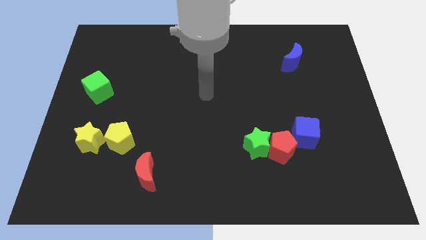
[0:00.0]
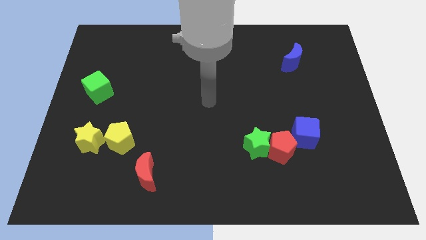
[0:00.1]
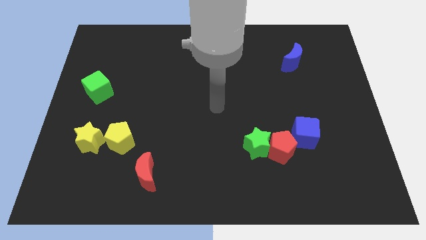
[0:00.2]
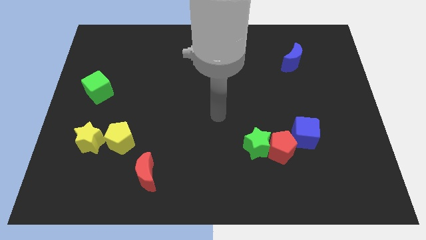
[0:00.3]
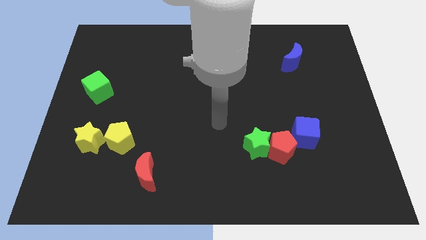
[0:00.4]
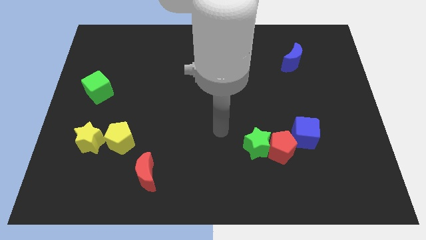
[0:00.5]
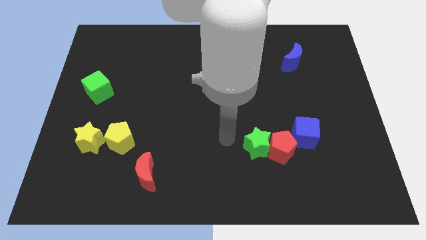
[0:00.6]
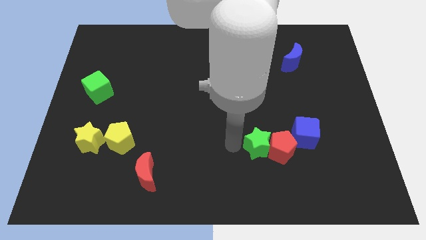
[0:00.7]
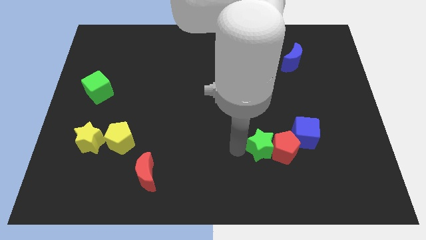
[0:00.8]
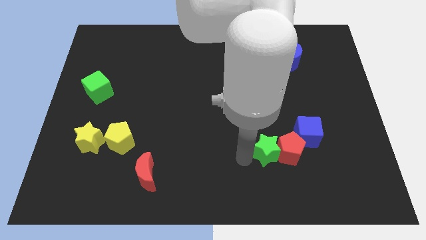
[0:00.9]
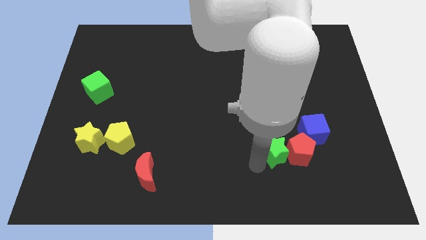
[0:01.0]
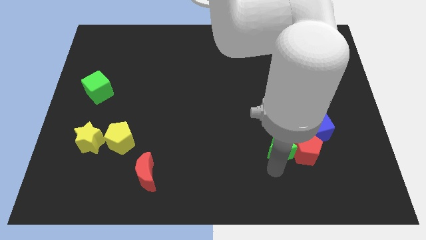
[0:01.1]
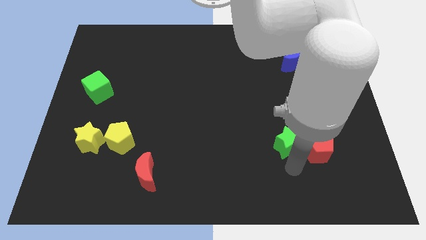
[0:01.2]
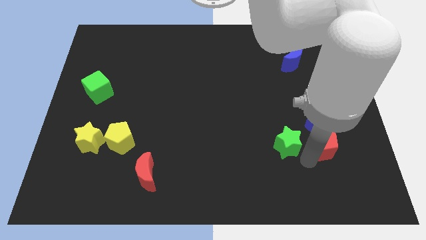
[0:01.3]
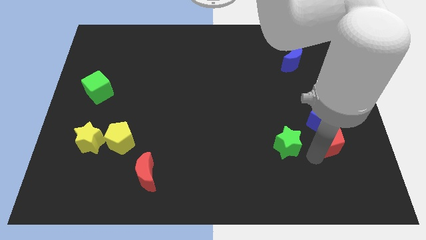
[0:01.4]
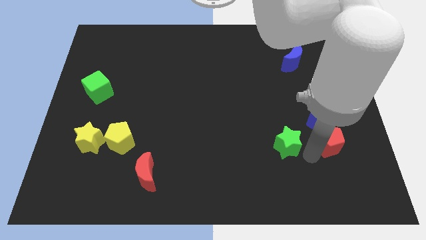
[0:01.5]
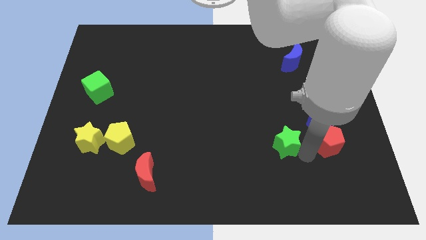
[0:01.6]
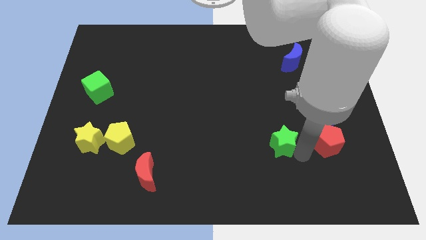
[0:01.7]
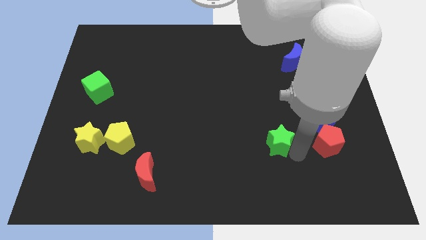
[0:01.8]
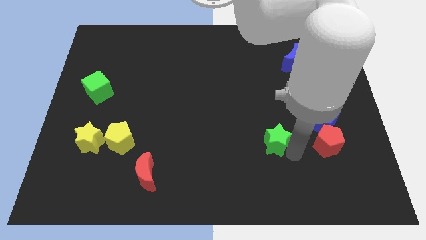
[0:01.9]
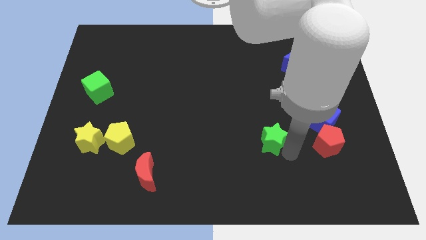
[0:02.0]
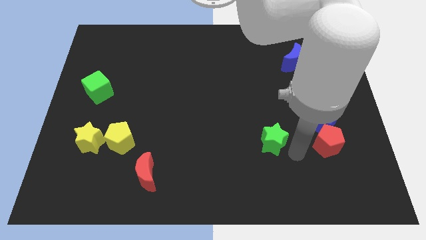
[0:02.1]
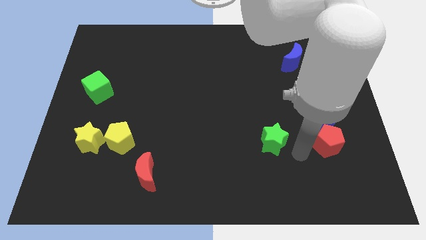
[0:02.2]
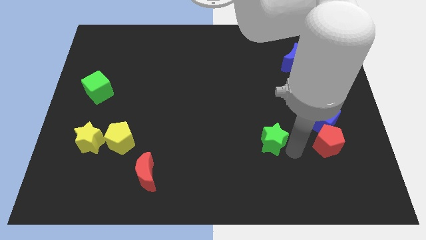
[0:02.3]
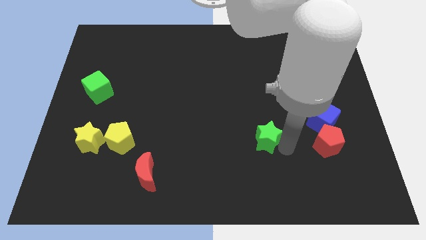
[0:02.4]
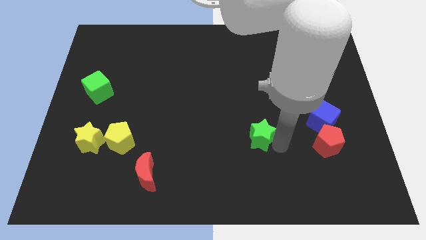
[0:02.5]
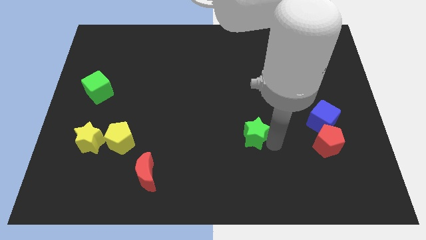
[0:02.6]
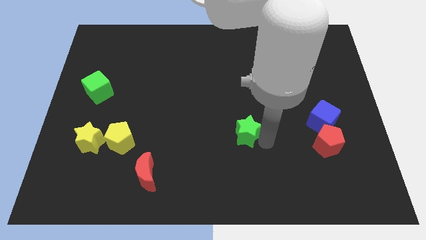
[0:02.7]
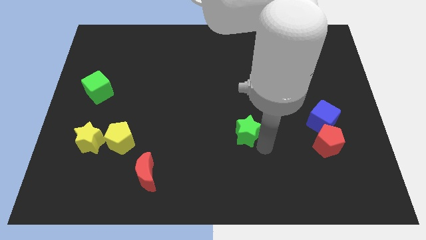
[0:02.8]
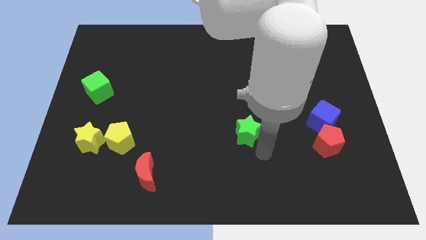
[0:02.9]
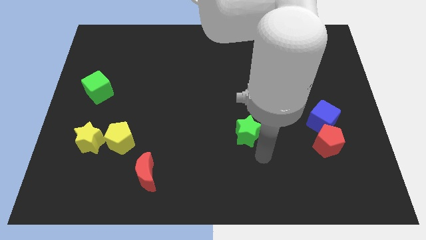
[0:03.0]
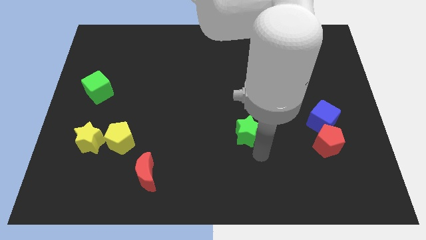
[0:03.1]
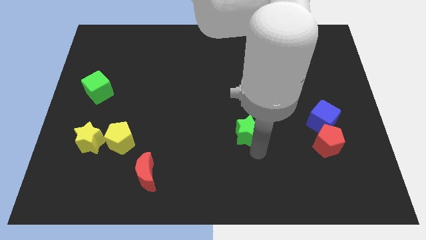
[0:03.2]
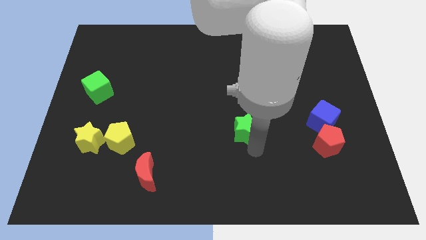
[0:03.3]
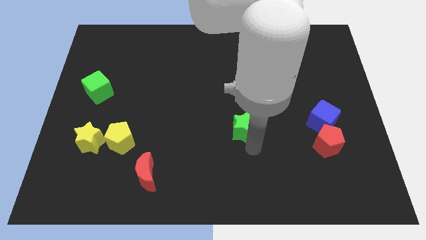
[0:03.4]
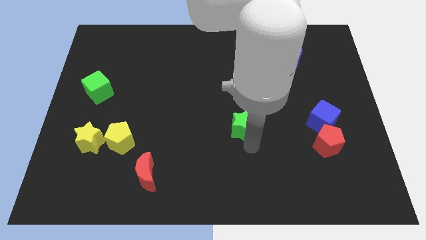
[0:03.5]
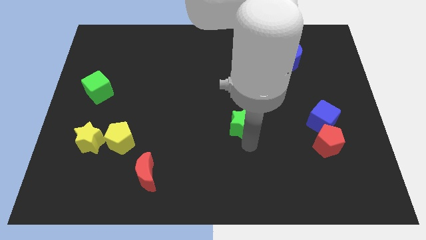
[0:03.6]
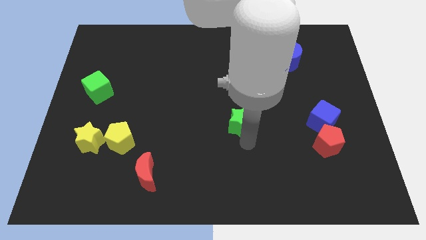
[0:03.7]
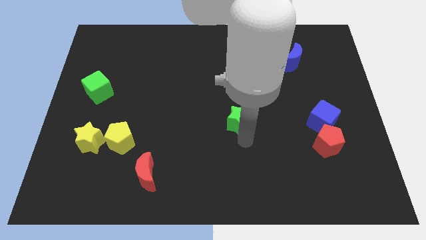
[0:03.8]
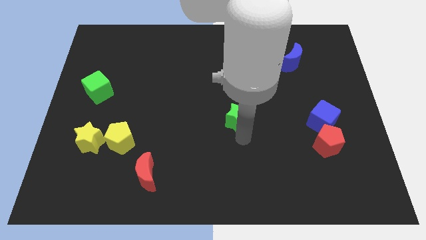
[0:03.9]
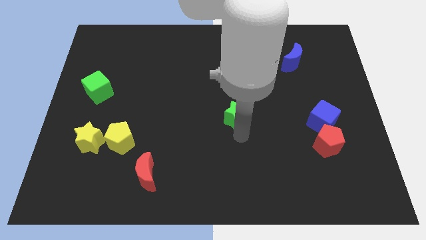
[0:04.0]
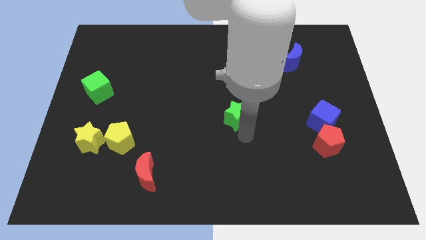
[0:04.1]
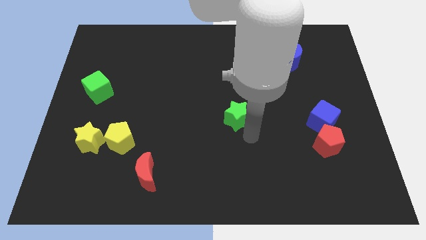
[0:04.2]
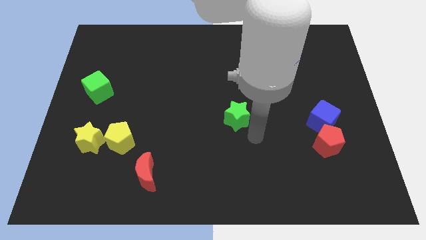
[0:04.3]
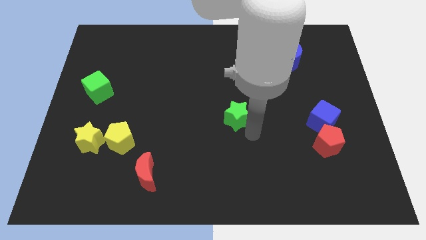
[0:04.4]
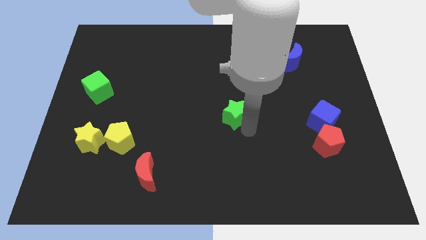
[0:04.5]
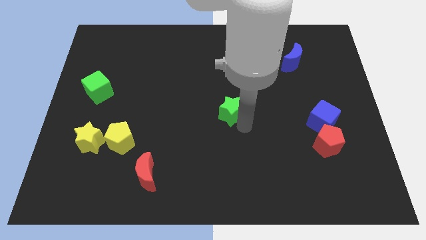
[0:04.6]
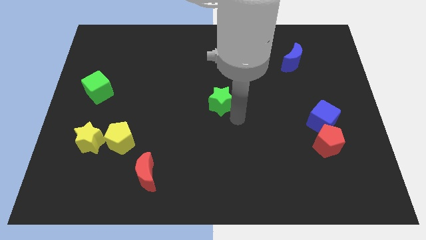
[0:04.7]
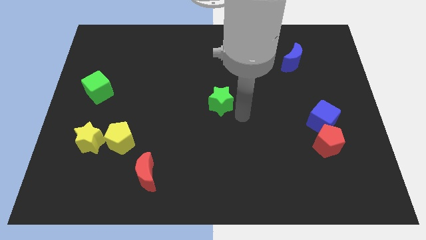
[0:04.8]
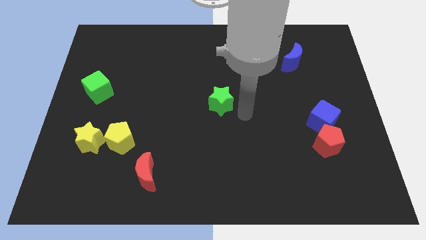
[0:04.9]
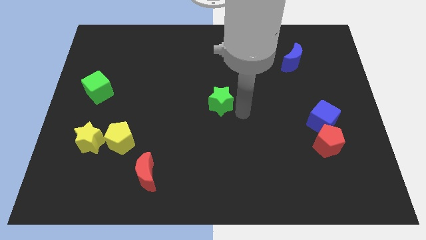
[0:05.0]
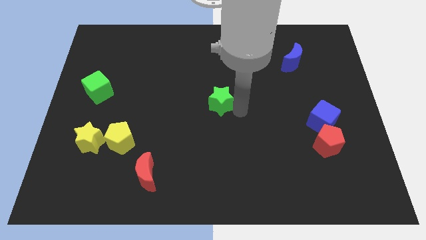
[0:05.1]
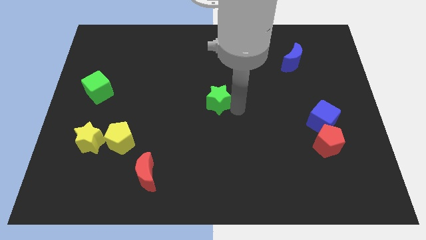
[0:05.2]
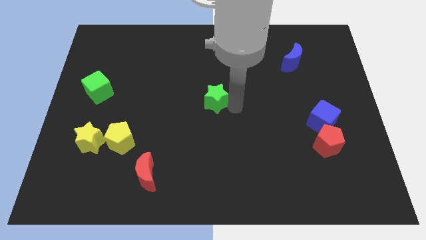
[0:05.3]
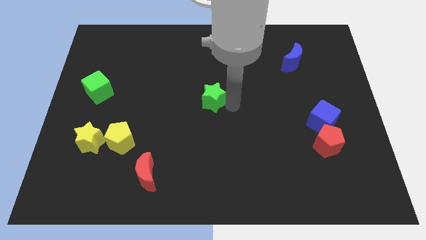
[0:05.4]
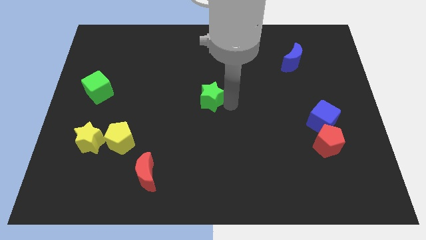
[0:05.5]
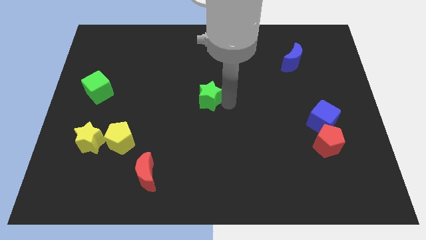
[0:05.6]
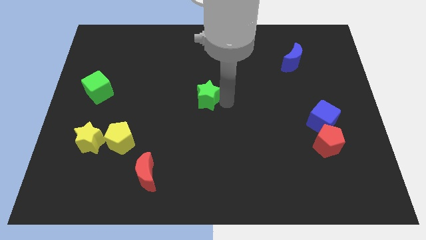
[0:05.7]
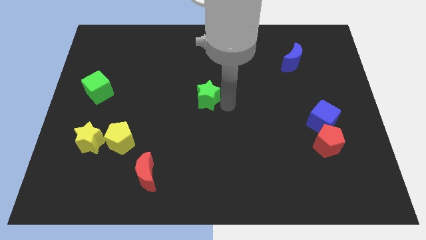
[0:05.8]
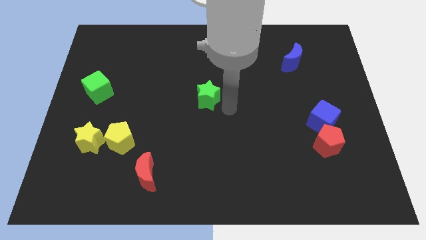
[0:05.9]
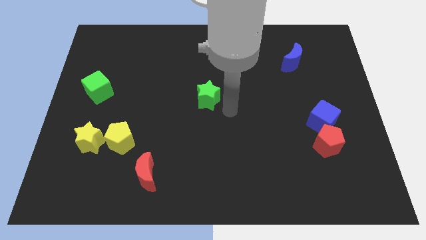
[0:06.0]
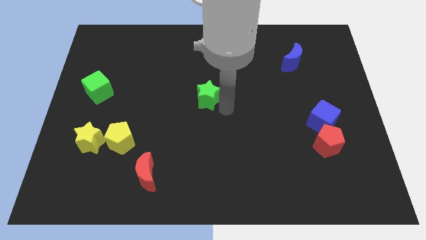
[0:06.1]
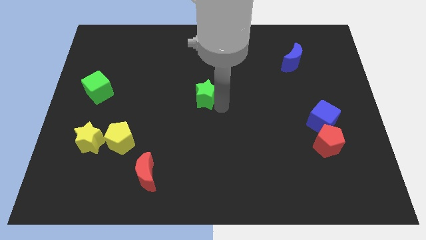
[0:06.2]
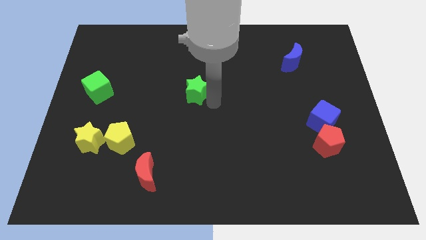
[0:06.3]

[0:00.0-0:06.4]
push the green star up and left diagonally

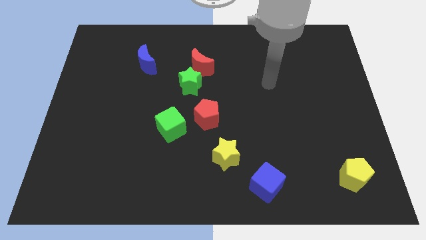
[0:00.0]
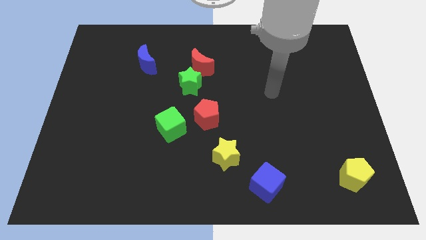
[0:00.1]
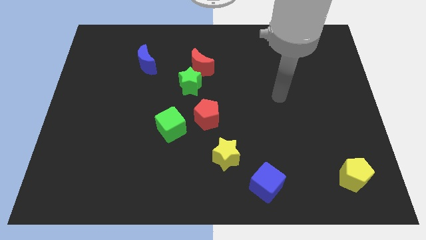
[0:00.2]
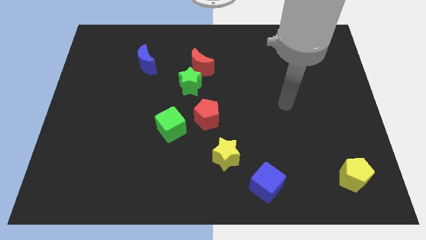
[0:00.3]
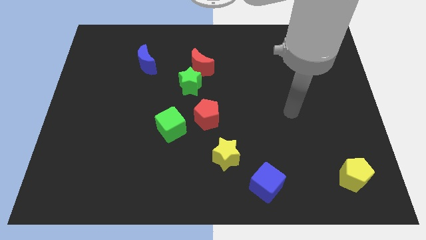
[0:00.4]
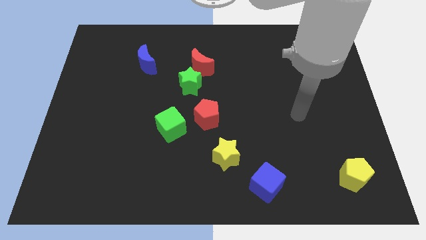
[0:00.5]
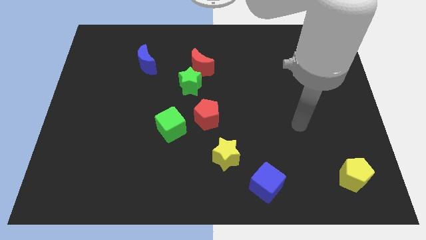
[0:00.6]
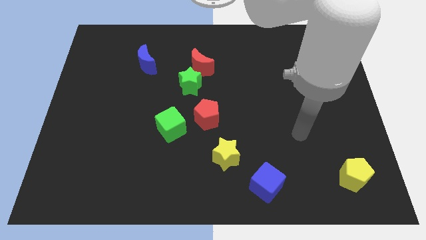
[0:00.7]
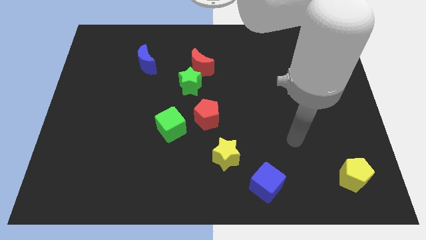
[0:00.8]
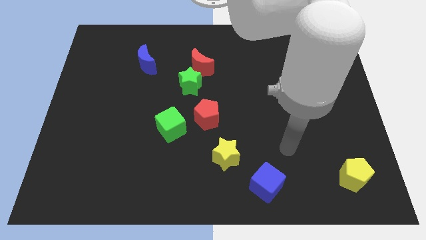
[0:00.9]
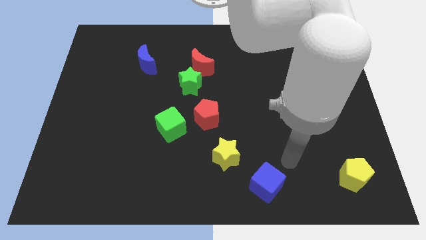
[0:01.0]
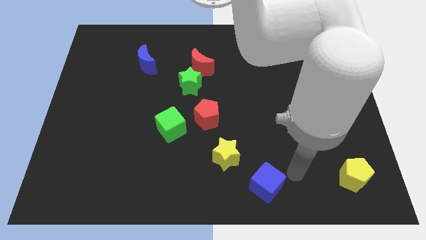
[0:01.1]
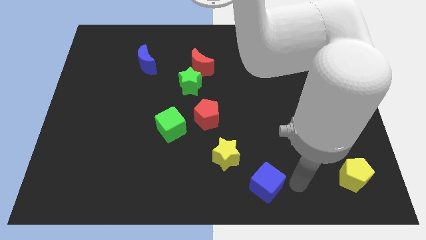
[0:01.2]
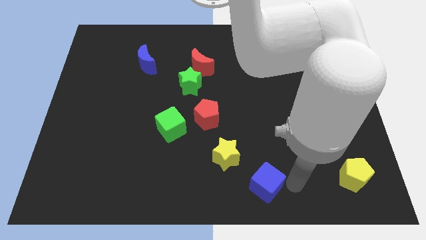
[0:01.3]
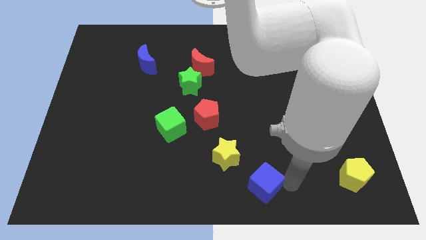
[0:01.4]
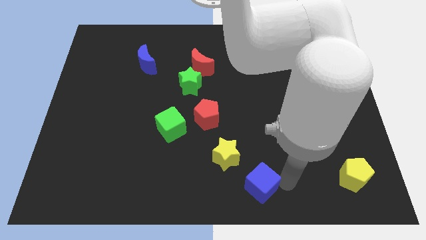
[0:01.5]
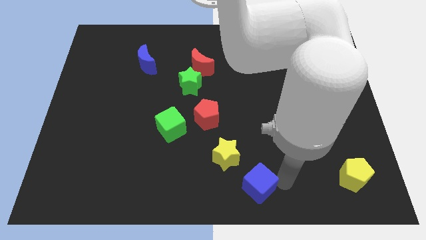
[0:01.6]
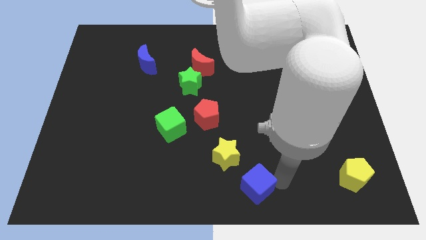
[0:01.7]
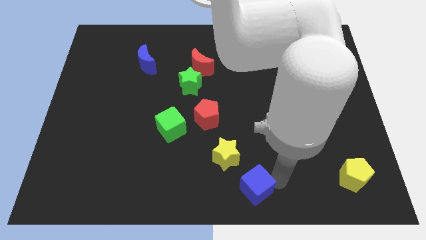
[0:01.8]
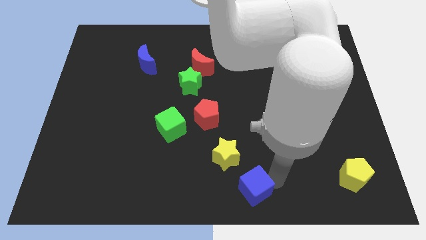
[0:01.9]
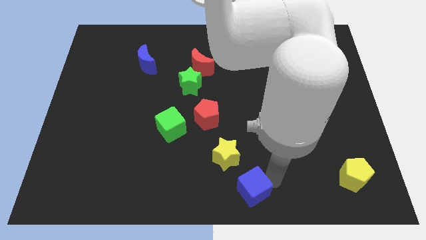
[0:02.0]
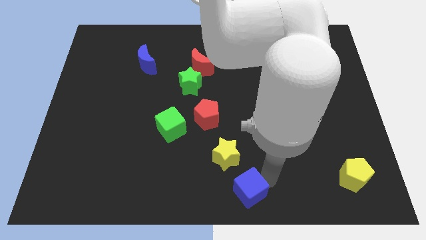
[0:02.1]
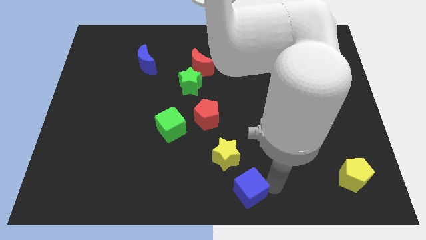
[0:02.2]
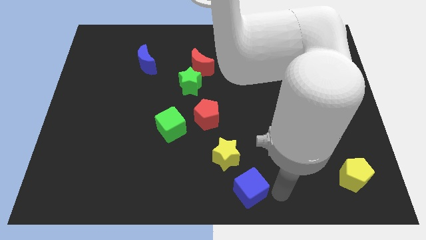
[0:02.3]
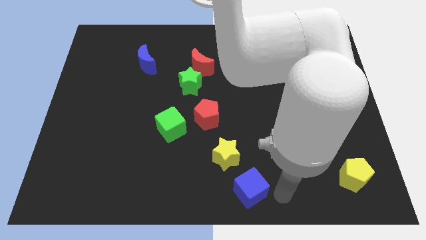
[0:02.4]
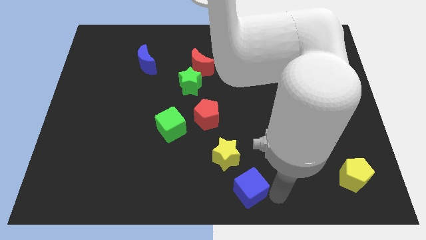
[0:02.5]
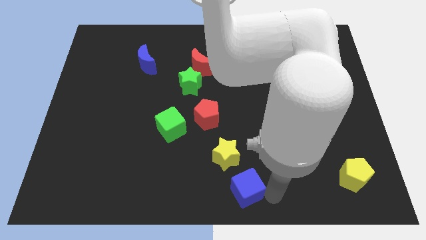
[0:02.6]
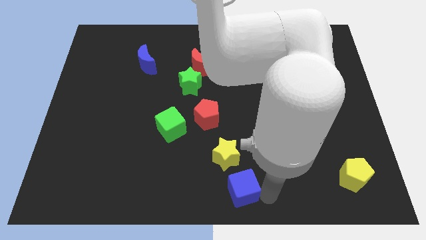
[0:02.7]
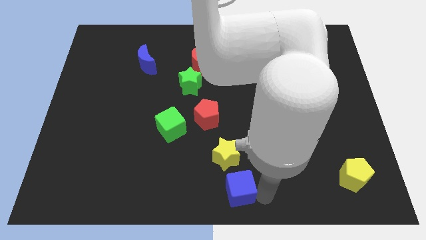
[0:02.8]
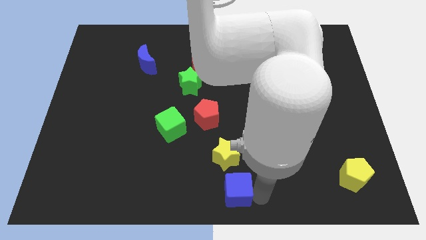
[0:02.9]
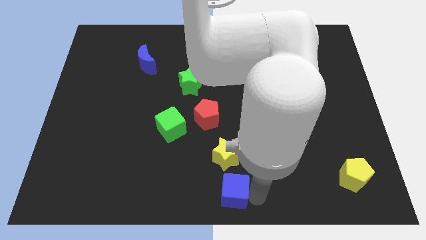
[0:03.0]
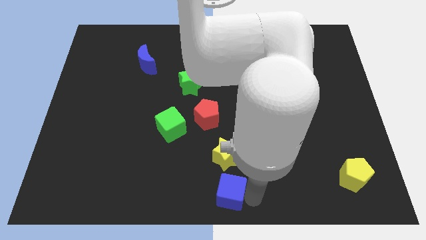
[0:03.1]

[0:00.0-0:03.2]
push the blue cube slightly to the left
